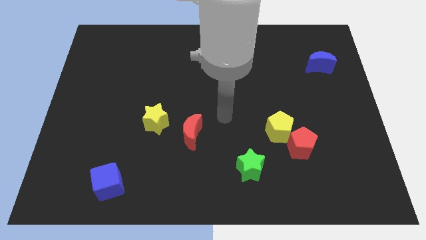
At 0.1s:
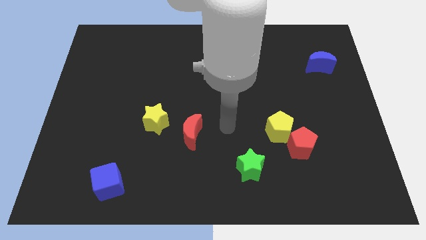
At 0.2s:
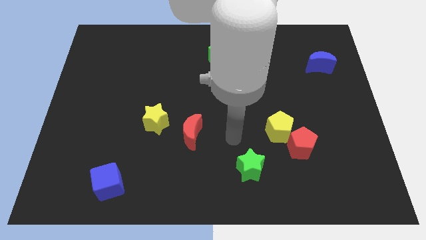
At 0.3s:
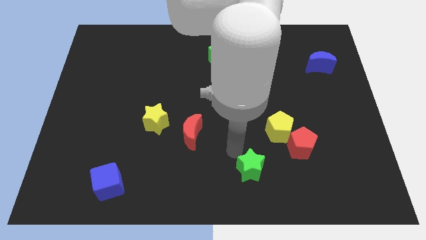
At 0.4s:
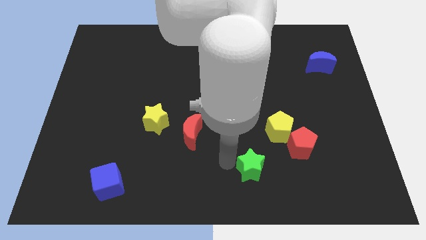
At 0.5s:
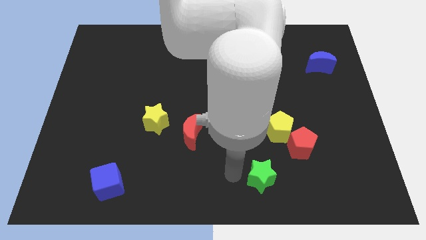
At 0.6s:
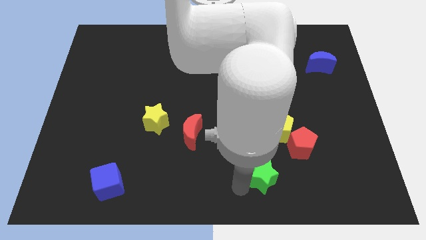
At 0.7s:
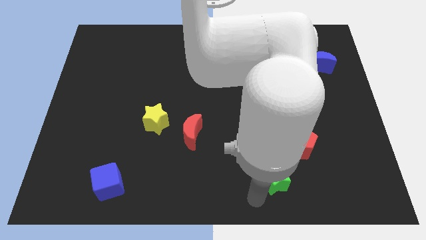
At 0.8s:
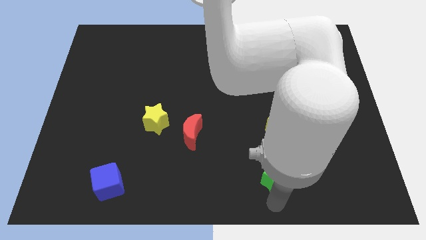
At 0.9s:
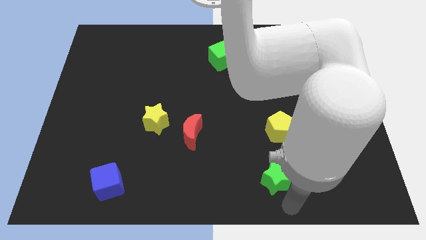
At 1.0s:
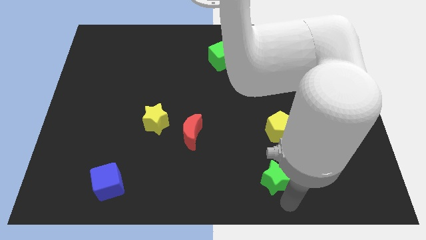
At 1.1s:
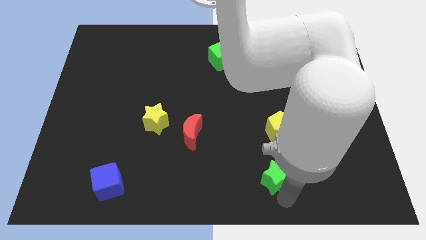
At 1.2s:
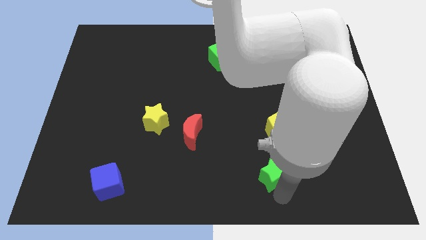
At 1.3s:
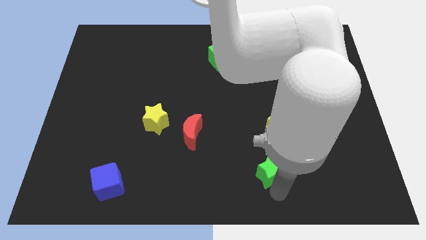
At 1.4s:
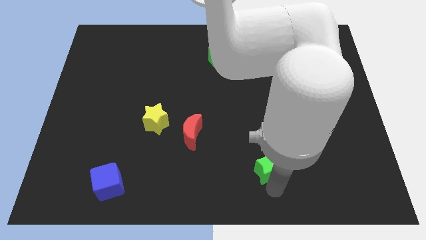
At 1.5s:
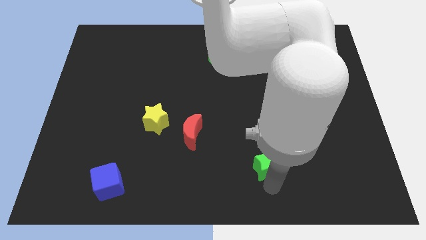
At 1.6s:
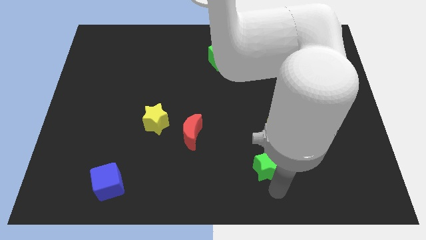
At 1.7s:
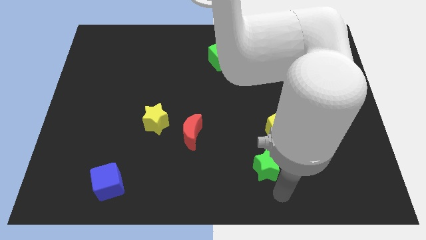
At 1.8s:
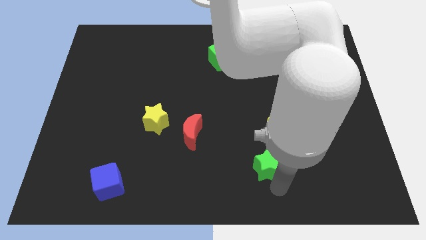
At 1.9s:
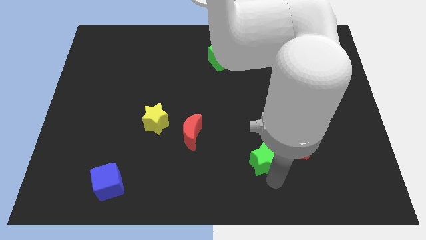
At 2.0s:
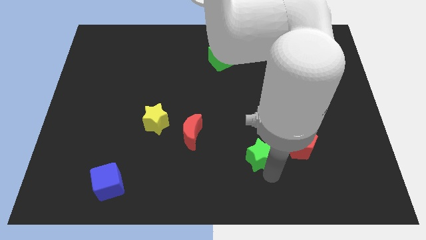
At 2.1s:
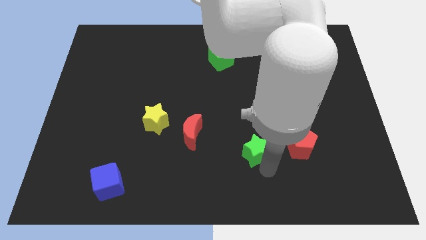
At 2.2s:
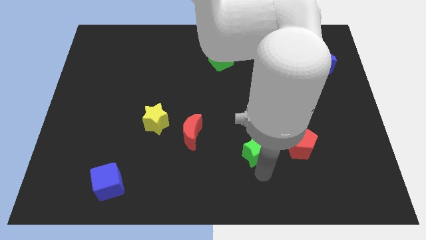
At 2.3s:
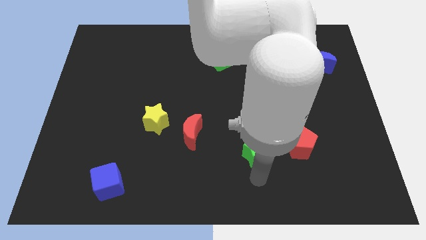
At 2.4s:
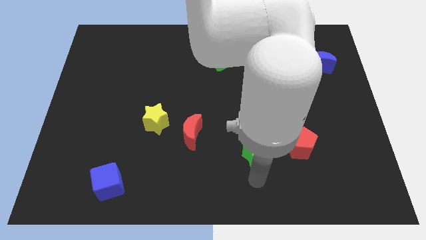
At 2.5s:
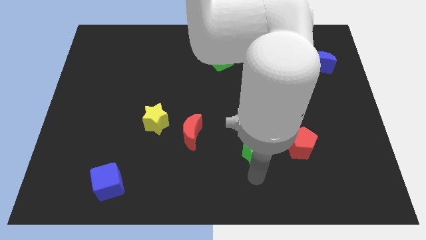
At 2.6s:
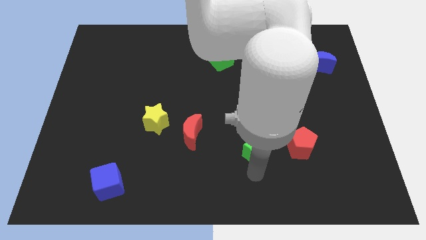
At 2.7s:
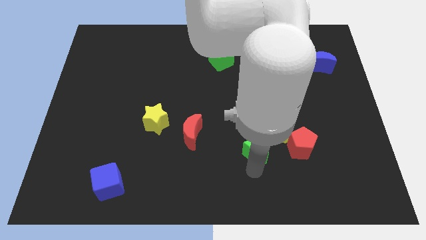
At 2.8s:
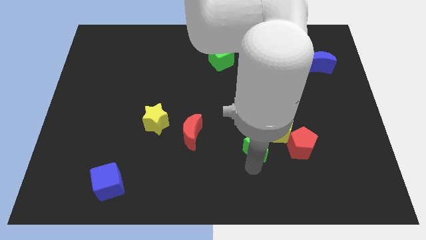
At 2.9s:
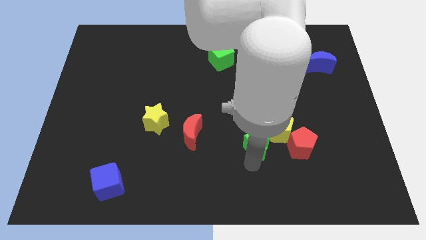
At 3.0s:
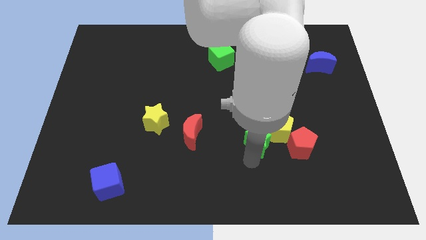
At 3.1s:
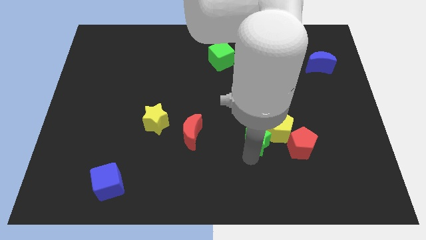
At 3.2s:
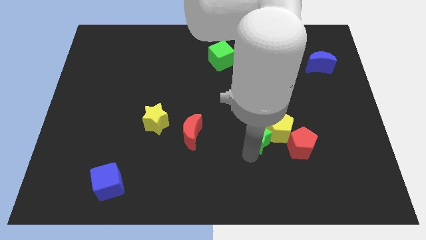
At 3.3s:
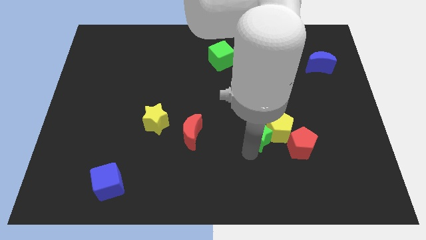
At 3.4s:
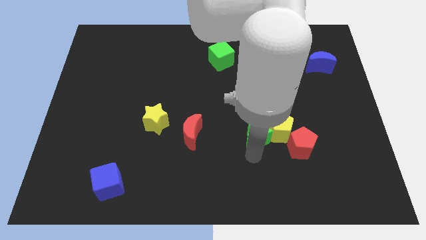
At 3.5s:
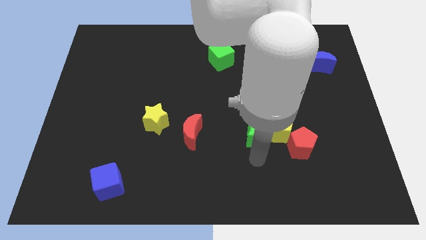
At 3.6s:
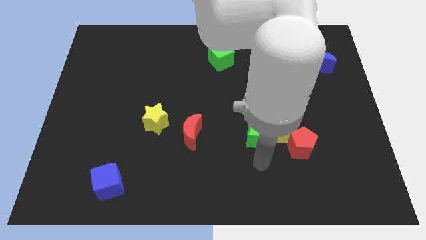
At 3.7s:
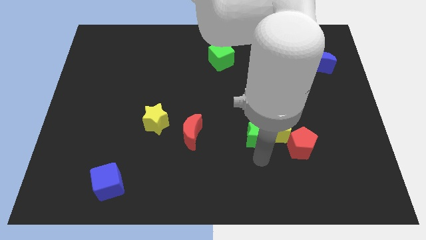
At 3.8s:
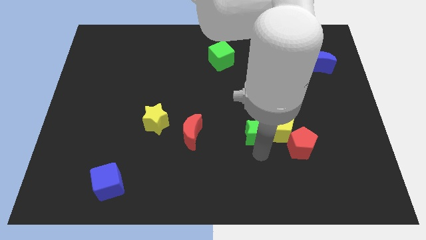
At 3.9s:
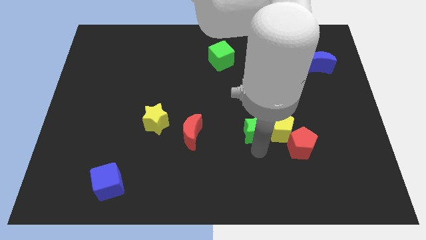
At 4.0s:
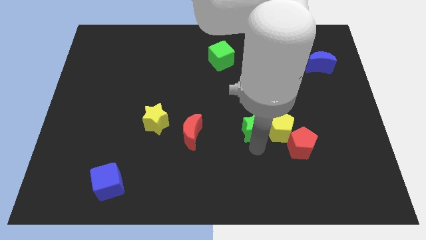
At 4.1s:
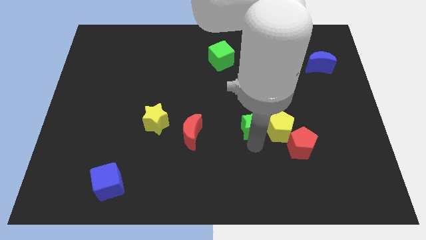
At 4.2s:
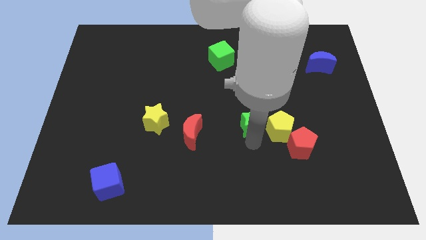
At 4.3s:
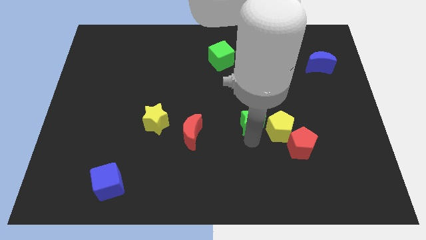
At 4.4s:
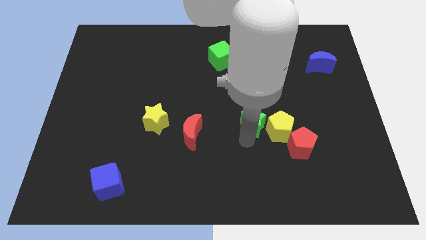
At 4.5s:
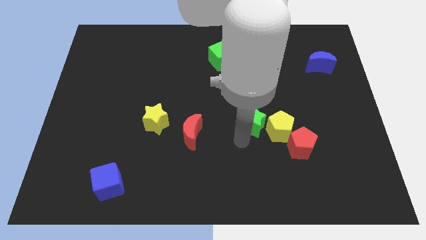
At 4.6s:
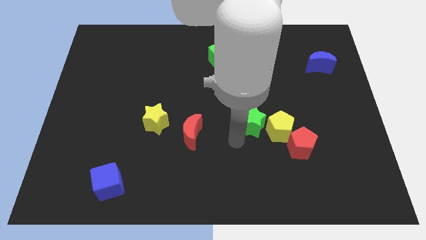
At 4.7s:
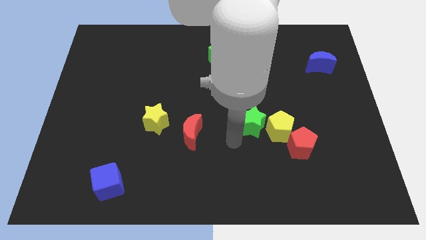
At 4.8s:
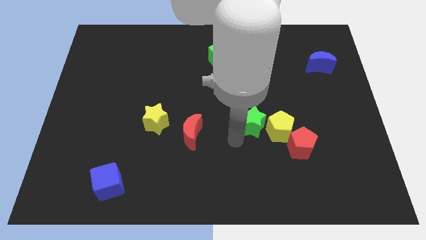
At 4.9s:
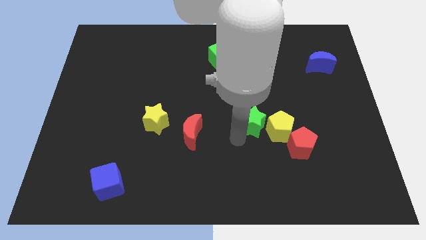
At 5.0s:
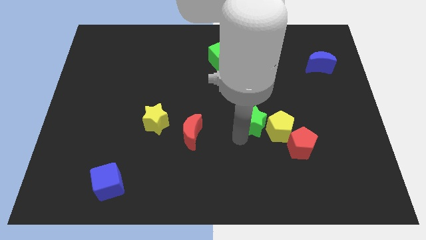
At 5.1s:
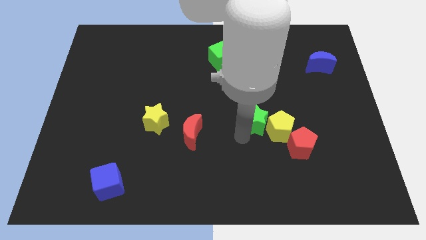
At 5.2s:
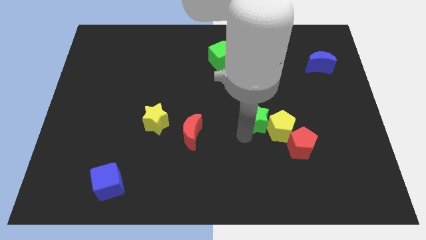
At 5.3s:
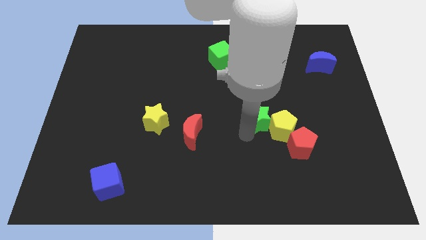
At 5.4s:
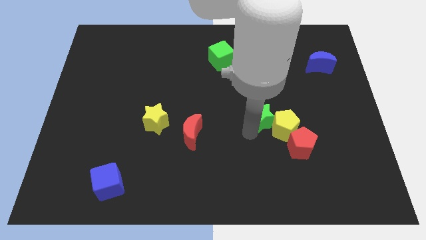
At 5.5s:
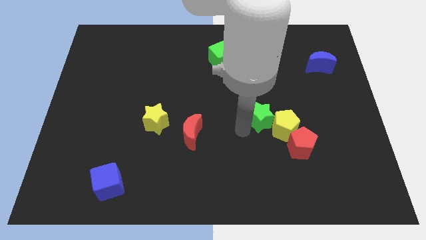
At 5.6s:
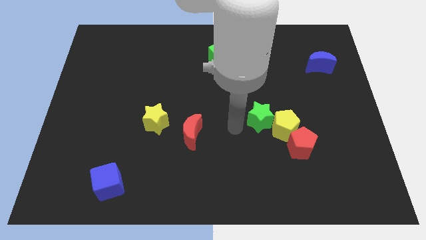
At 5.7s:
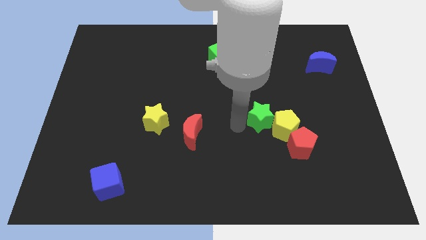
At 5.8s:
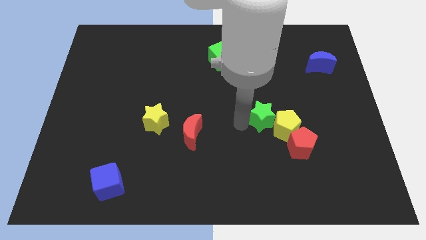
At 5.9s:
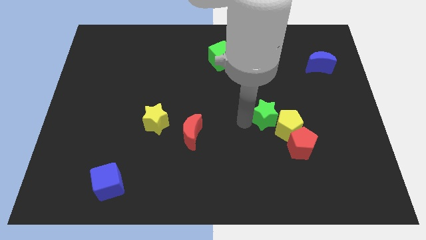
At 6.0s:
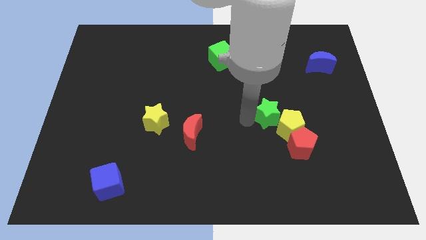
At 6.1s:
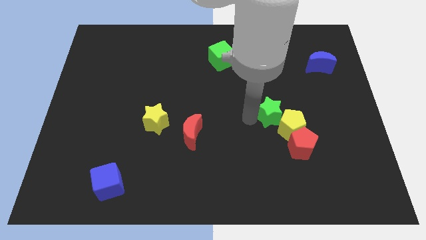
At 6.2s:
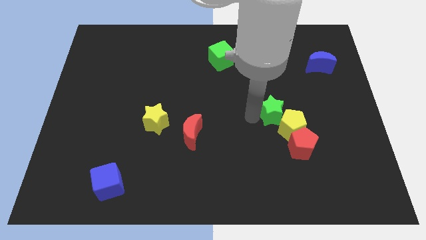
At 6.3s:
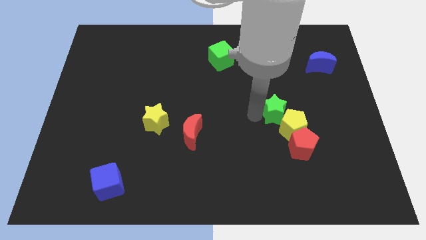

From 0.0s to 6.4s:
put the green star above the red pentagon
